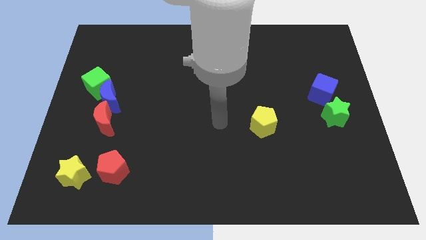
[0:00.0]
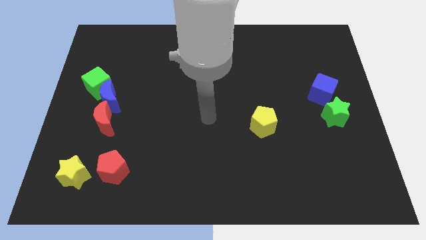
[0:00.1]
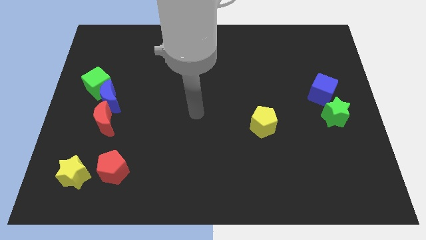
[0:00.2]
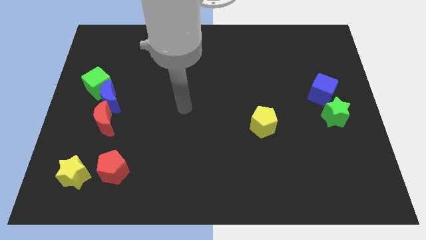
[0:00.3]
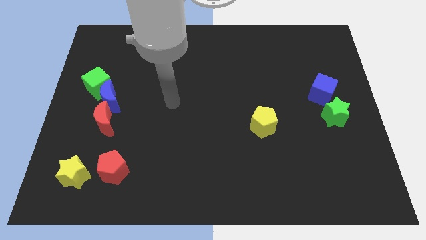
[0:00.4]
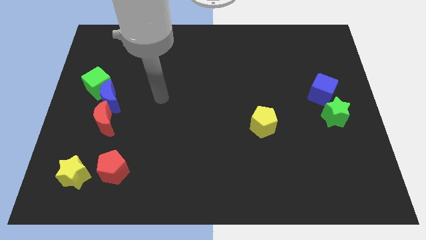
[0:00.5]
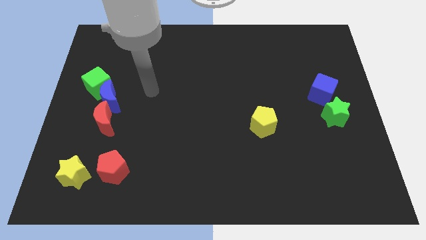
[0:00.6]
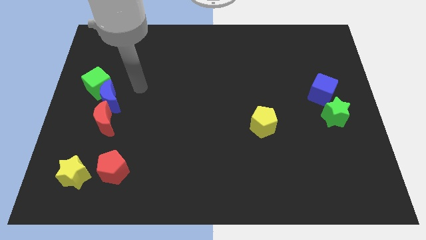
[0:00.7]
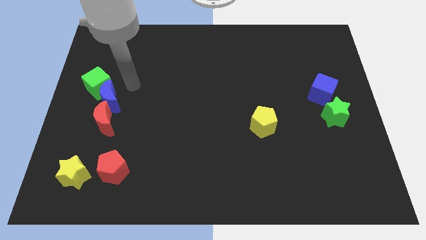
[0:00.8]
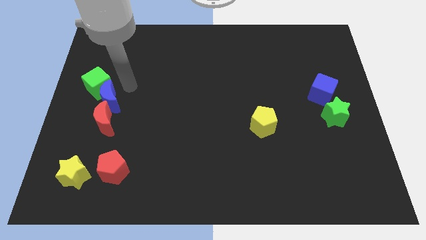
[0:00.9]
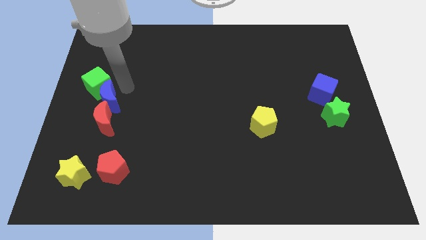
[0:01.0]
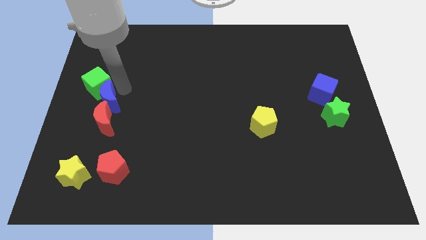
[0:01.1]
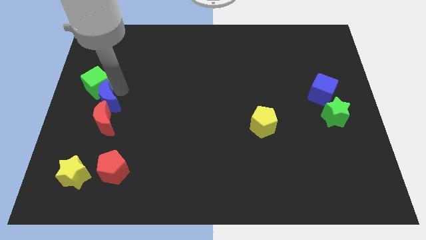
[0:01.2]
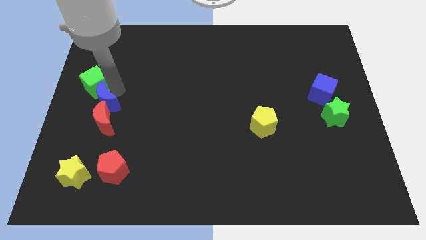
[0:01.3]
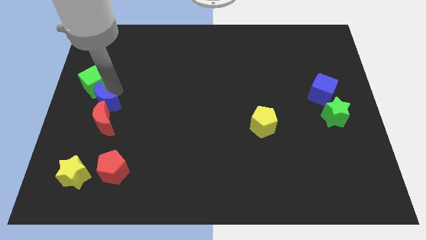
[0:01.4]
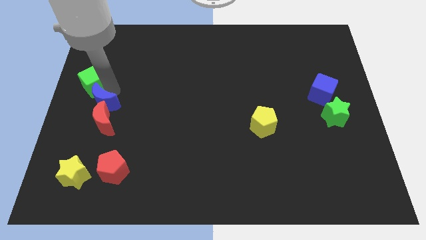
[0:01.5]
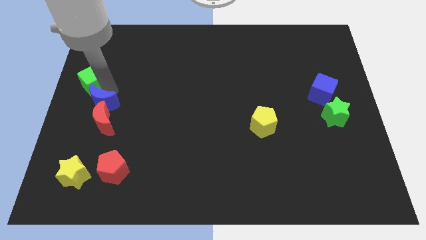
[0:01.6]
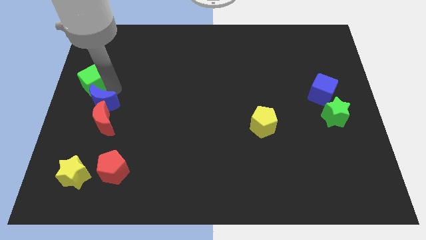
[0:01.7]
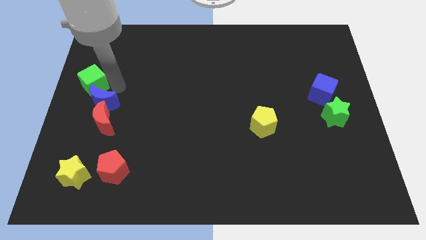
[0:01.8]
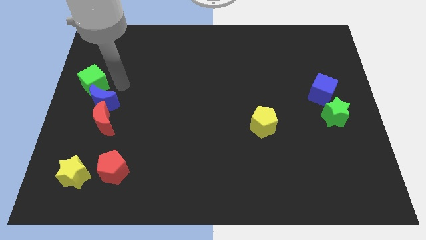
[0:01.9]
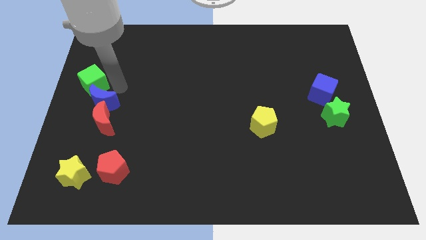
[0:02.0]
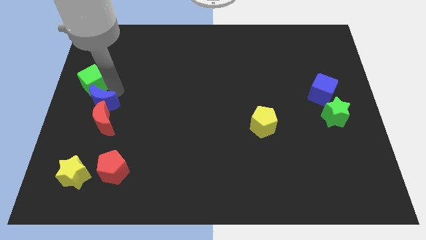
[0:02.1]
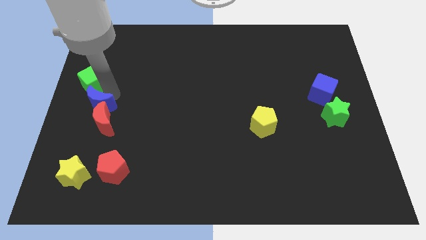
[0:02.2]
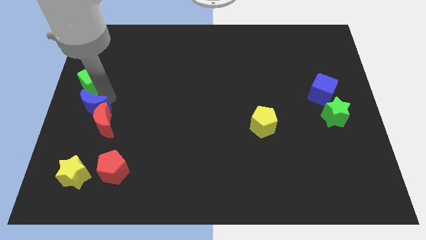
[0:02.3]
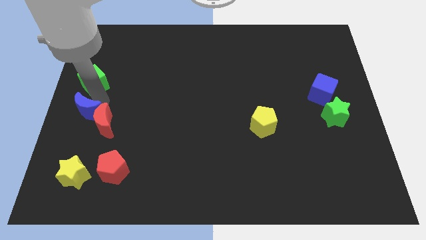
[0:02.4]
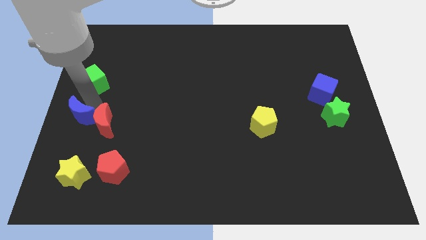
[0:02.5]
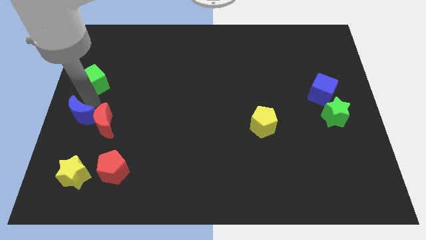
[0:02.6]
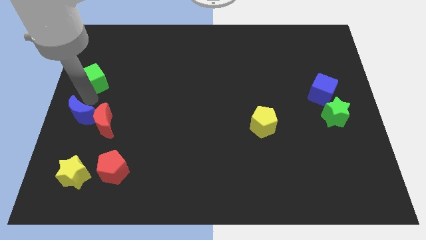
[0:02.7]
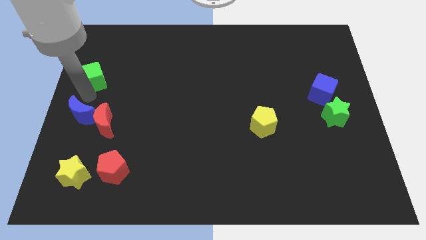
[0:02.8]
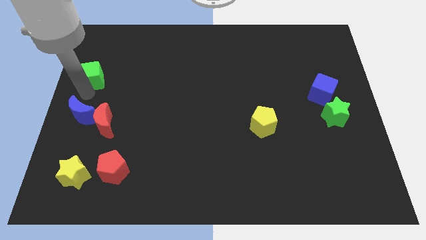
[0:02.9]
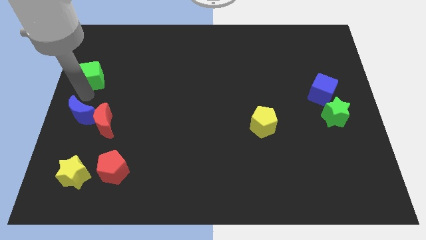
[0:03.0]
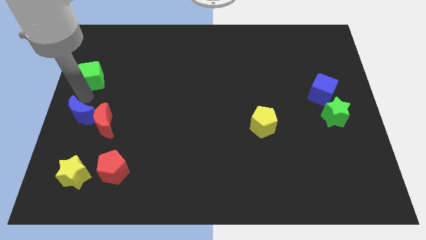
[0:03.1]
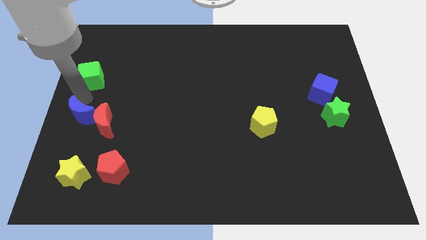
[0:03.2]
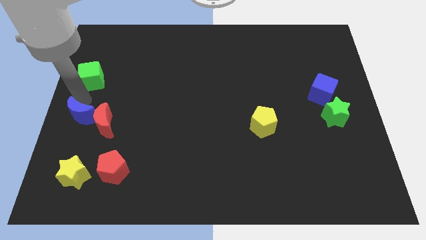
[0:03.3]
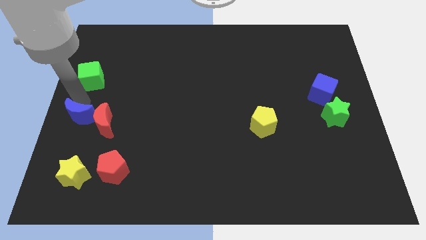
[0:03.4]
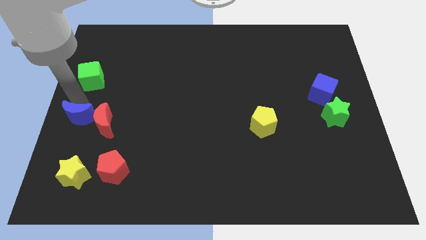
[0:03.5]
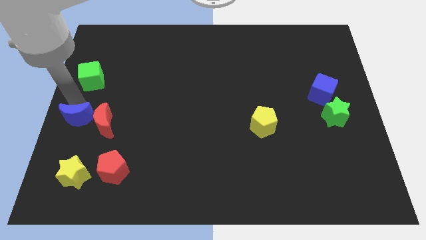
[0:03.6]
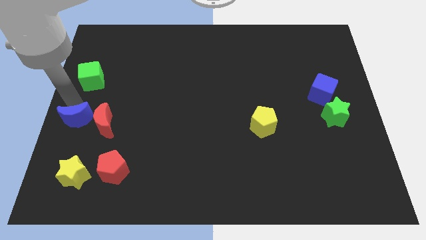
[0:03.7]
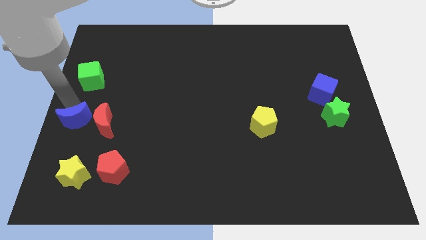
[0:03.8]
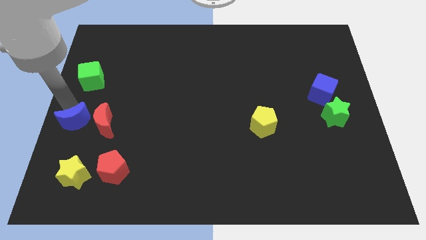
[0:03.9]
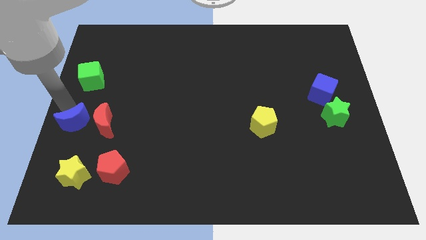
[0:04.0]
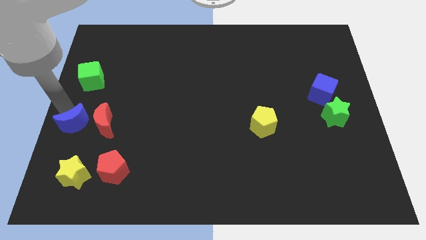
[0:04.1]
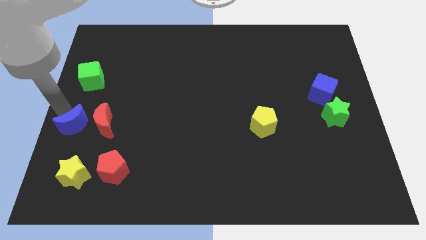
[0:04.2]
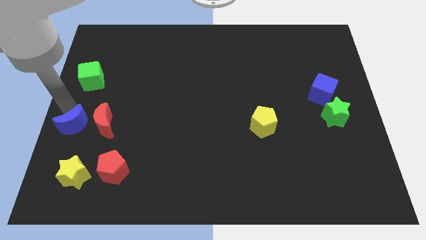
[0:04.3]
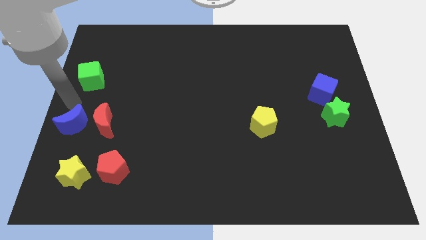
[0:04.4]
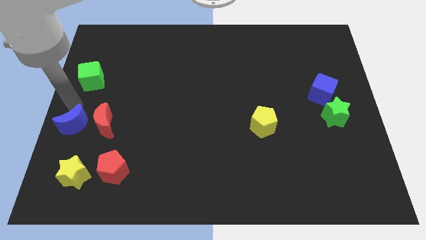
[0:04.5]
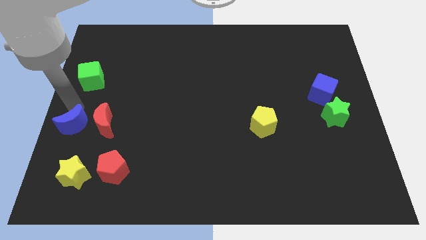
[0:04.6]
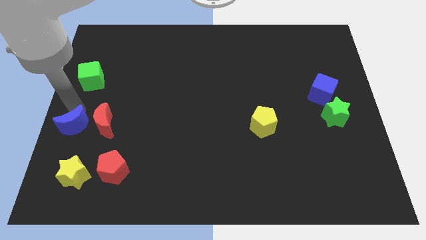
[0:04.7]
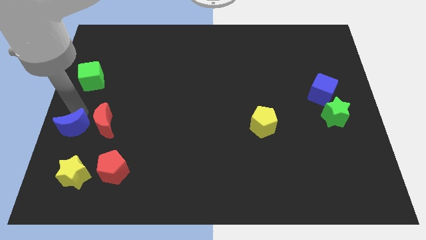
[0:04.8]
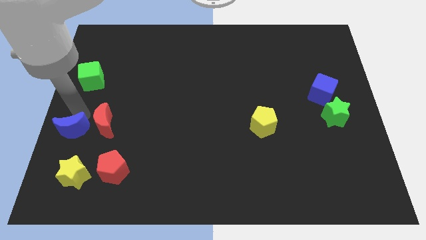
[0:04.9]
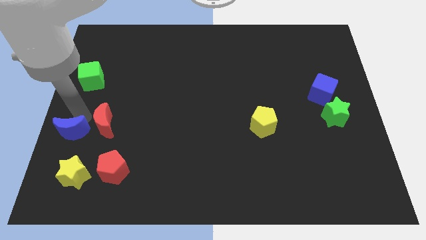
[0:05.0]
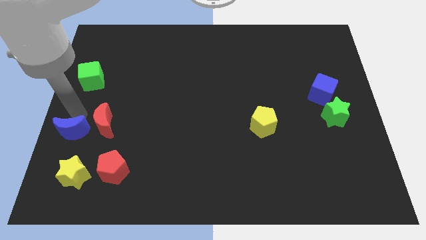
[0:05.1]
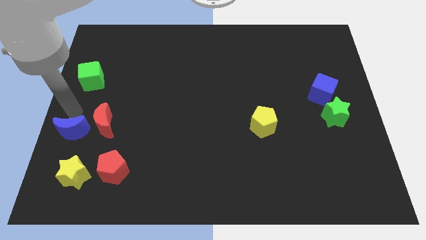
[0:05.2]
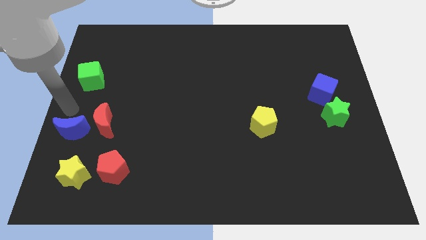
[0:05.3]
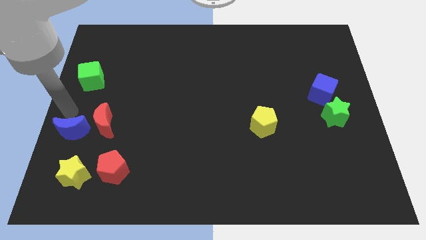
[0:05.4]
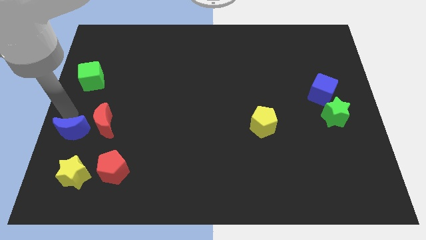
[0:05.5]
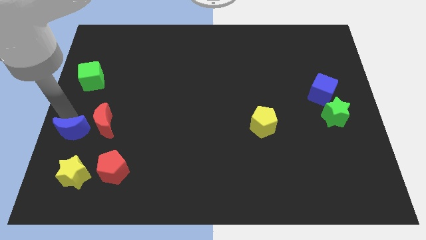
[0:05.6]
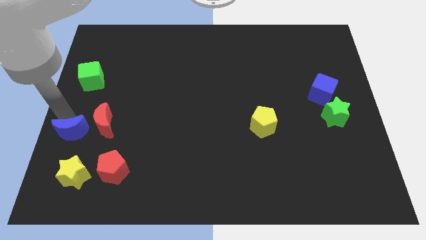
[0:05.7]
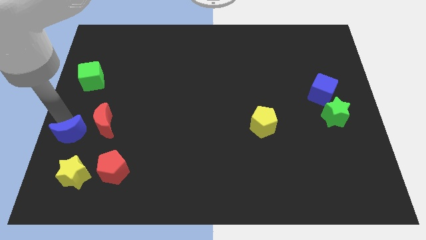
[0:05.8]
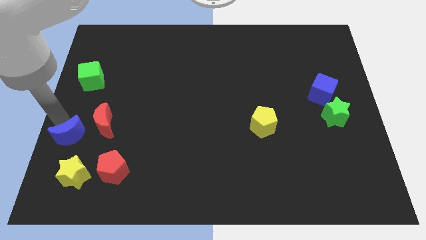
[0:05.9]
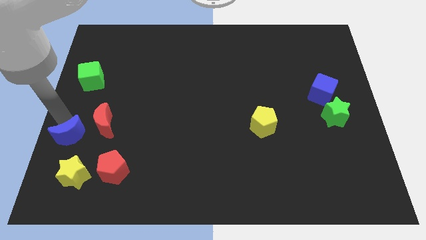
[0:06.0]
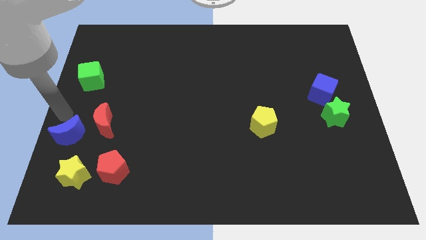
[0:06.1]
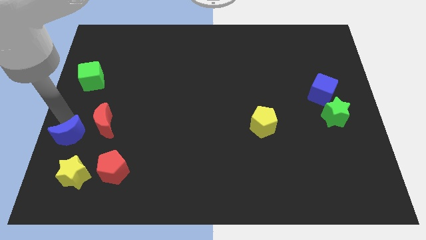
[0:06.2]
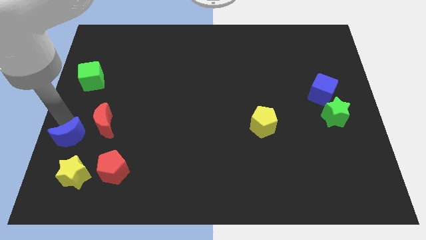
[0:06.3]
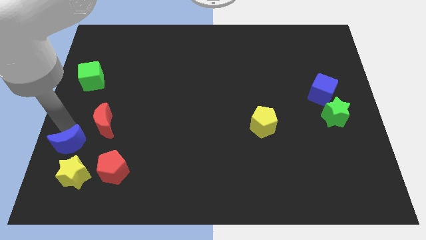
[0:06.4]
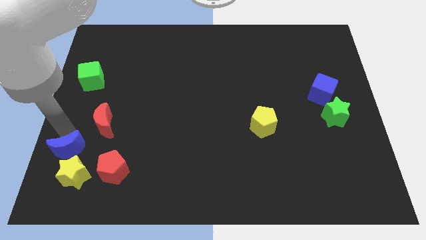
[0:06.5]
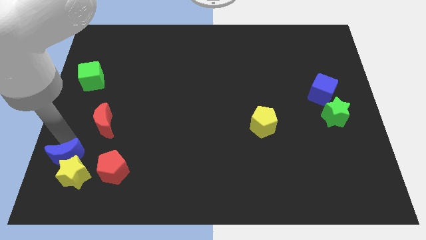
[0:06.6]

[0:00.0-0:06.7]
move the blue moon close to the yellow star
